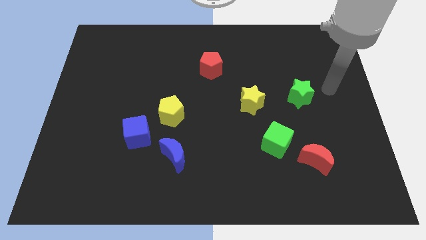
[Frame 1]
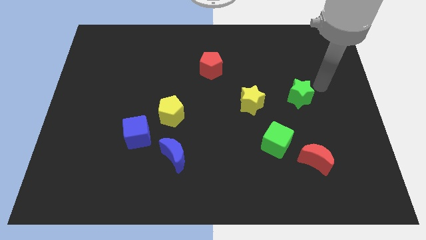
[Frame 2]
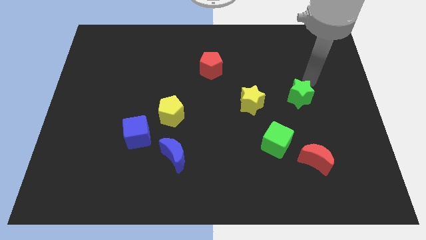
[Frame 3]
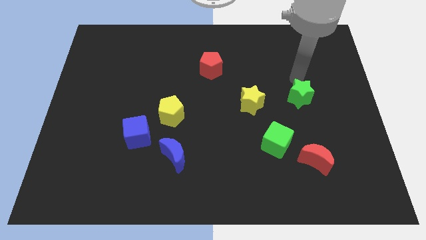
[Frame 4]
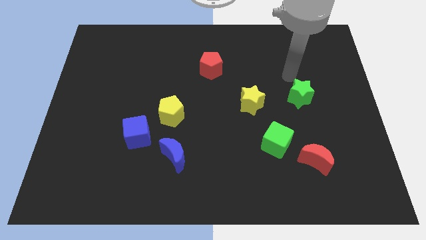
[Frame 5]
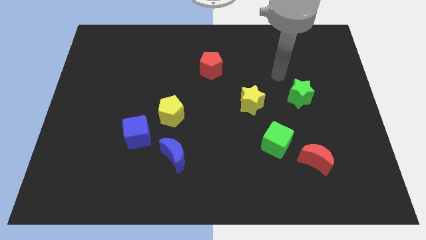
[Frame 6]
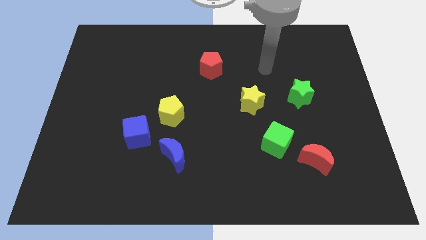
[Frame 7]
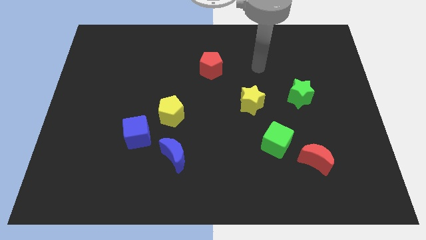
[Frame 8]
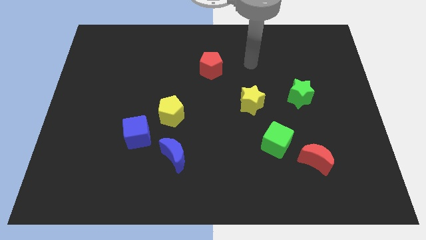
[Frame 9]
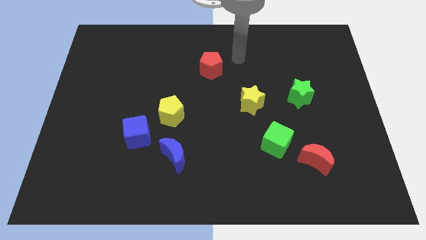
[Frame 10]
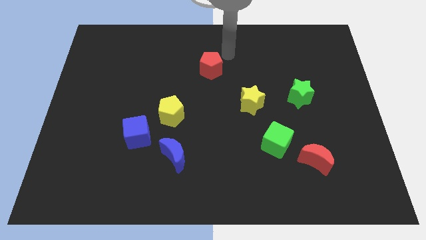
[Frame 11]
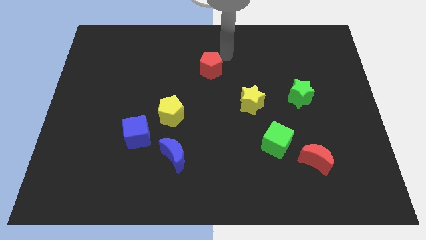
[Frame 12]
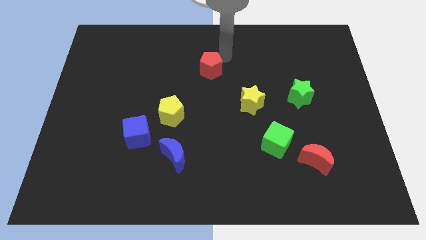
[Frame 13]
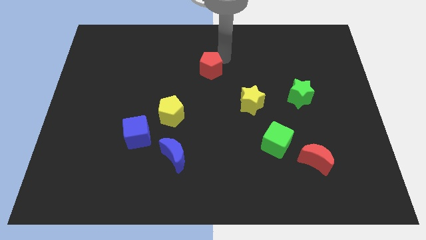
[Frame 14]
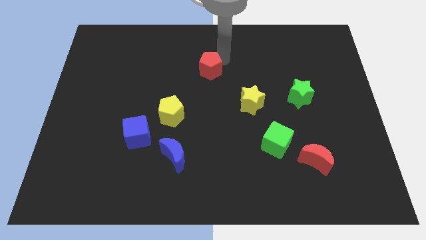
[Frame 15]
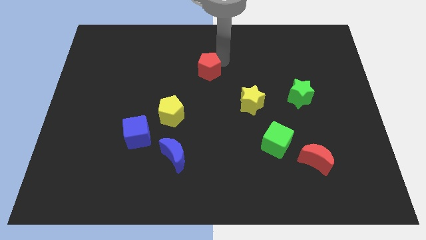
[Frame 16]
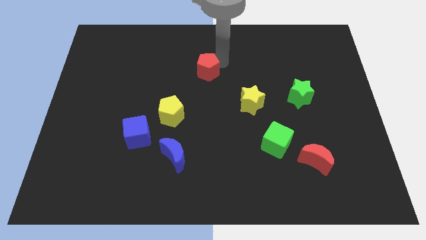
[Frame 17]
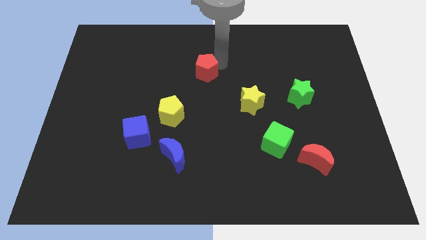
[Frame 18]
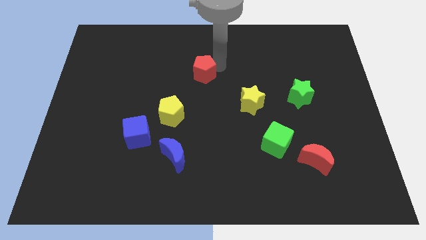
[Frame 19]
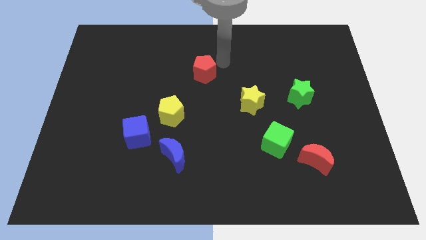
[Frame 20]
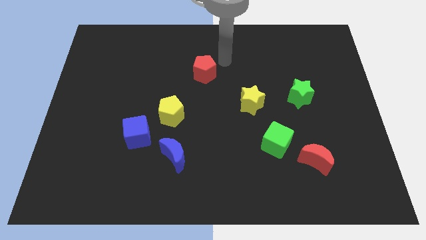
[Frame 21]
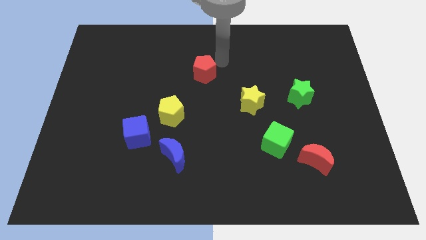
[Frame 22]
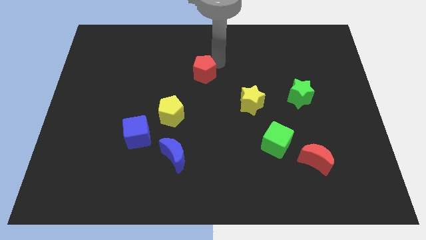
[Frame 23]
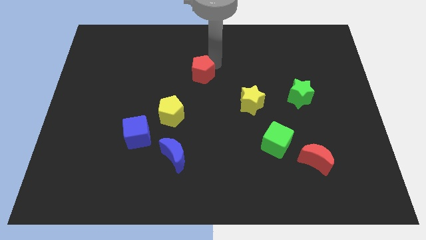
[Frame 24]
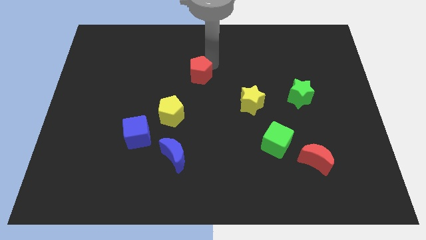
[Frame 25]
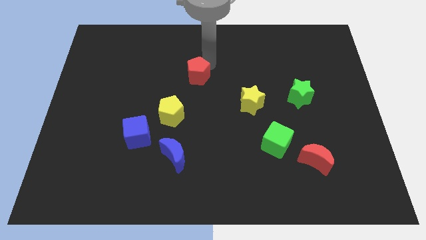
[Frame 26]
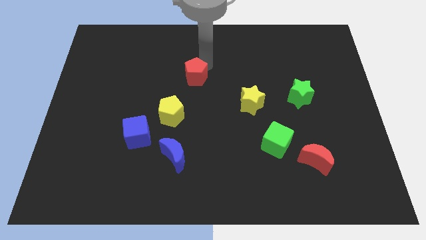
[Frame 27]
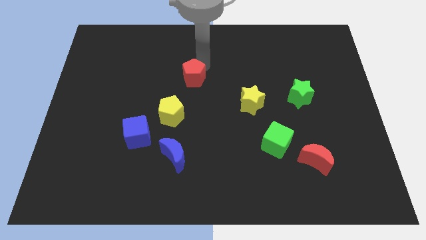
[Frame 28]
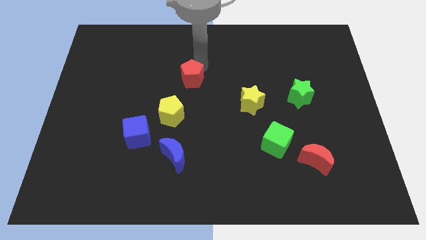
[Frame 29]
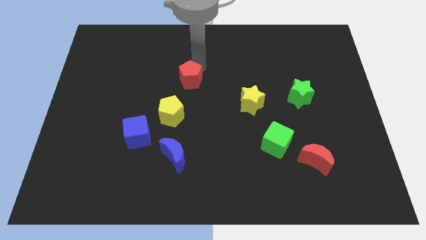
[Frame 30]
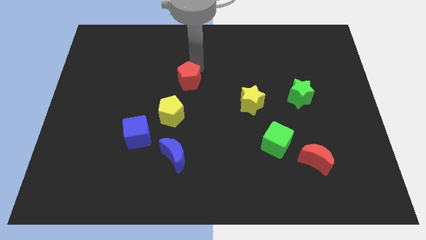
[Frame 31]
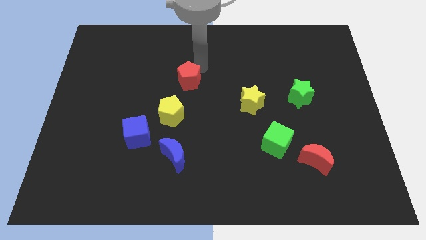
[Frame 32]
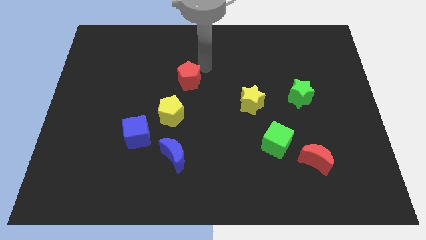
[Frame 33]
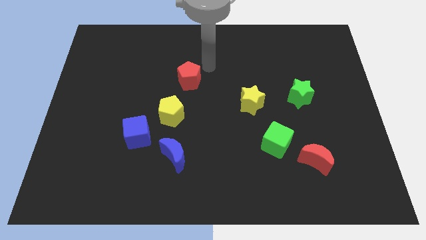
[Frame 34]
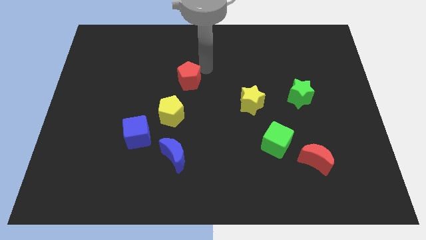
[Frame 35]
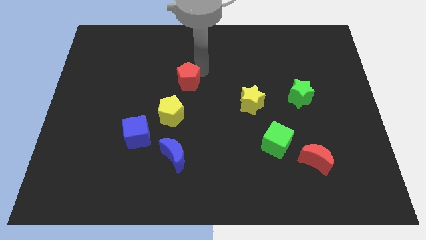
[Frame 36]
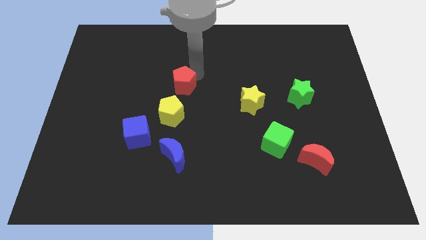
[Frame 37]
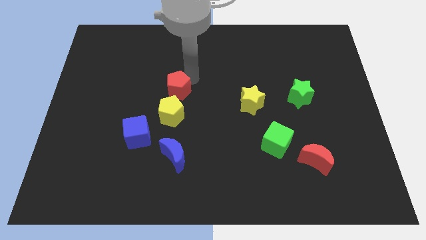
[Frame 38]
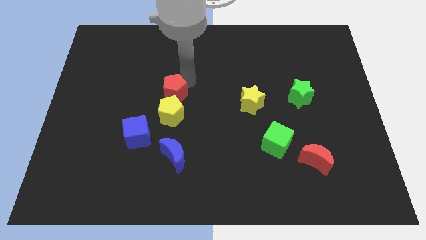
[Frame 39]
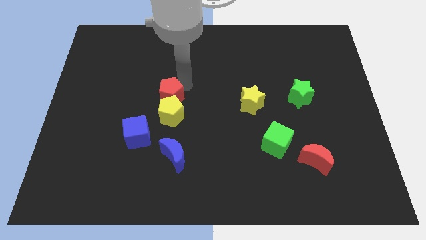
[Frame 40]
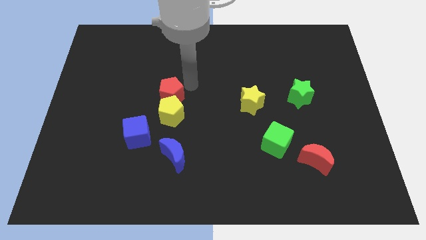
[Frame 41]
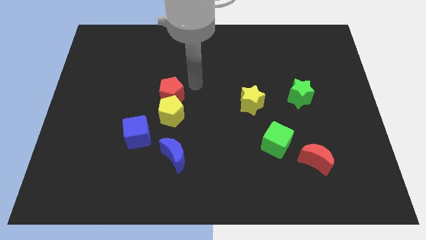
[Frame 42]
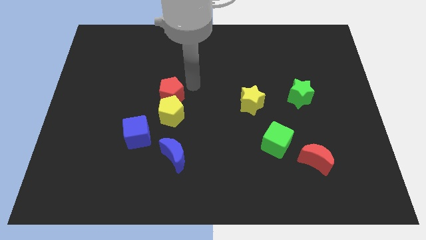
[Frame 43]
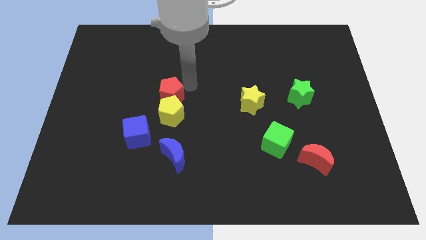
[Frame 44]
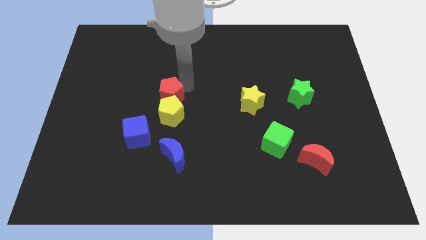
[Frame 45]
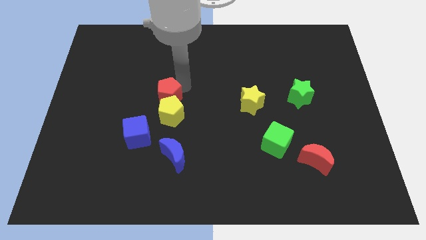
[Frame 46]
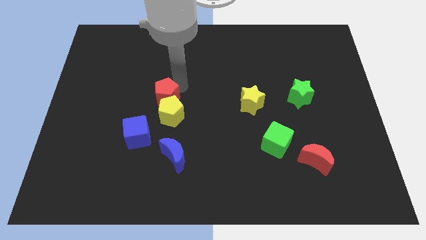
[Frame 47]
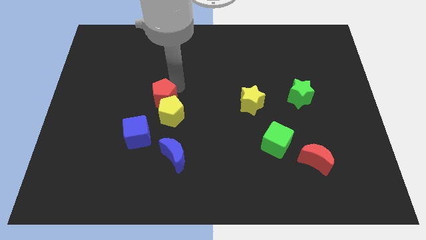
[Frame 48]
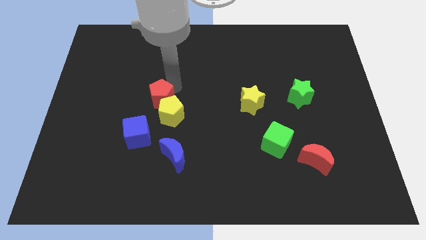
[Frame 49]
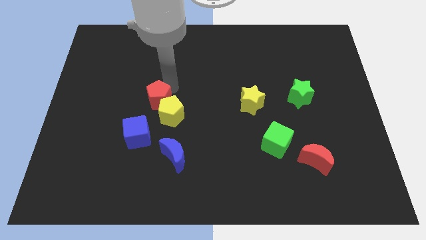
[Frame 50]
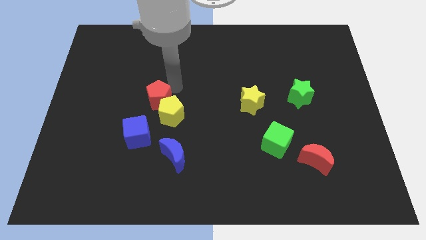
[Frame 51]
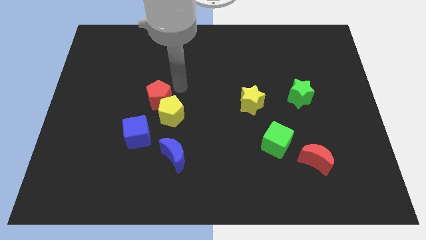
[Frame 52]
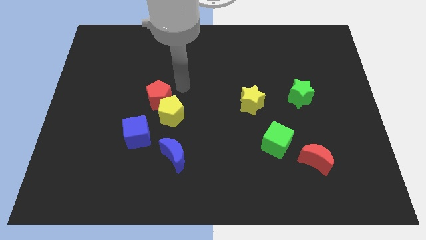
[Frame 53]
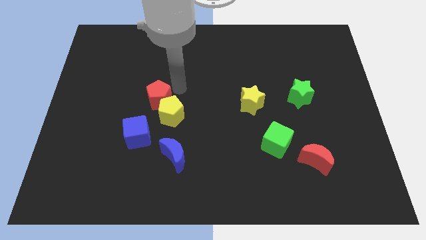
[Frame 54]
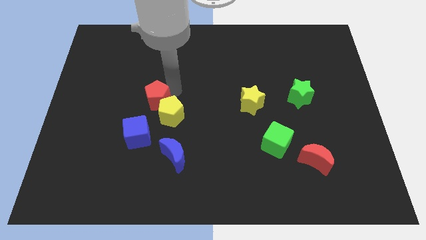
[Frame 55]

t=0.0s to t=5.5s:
push the red pentagon to the left side of the yellow pentagon
